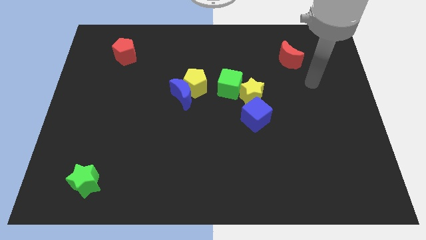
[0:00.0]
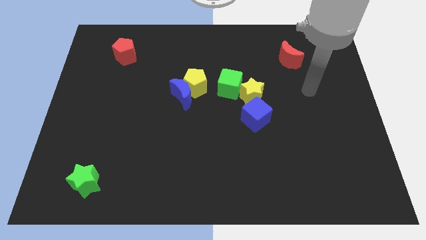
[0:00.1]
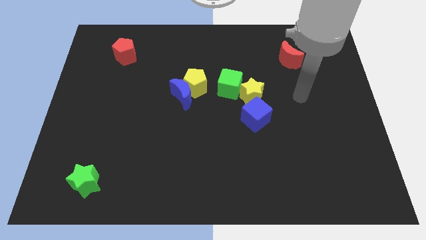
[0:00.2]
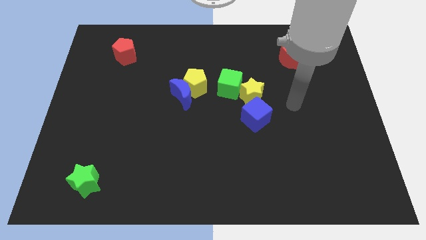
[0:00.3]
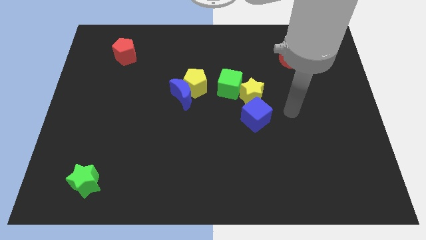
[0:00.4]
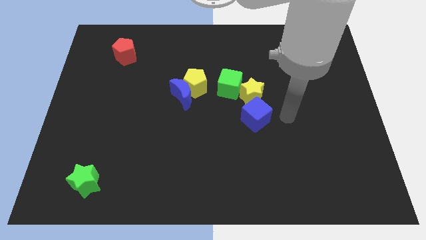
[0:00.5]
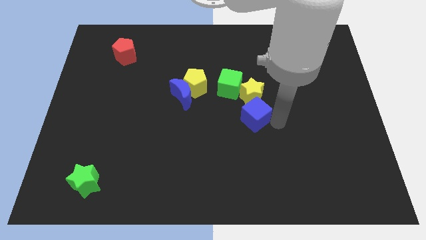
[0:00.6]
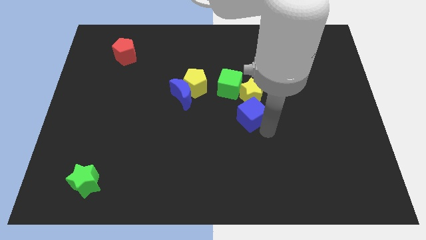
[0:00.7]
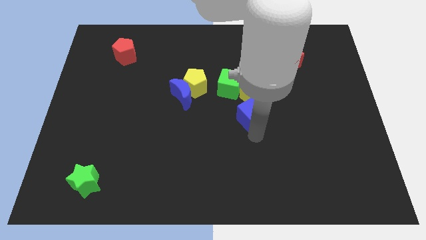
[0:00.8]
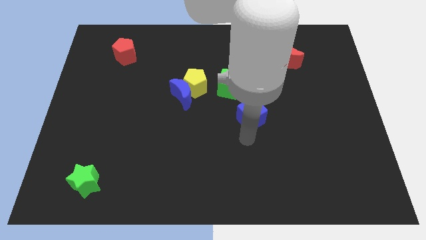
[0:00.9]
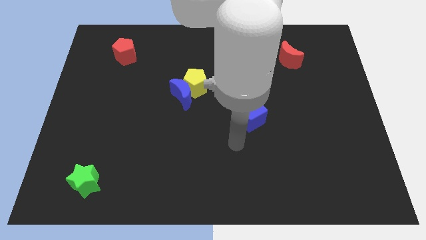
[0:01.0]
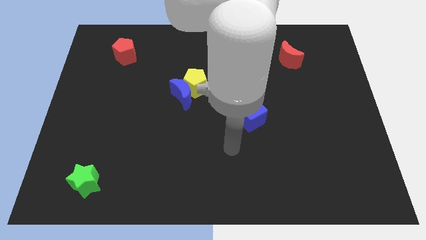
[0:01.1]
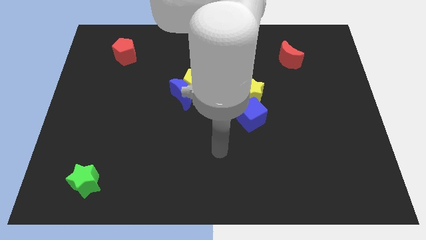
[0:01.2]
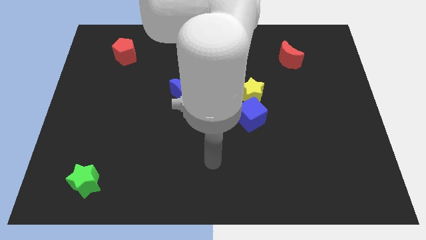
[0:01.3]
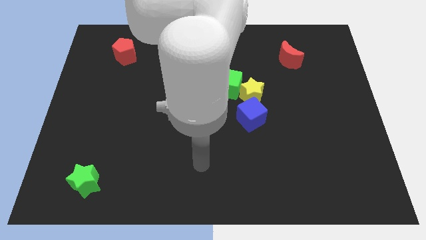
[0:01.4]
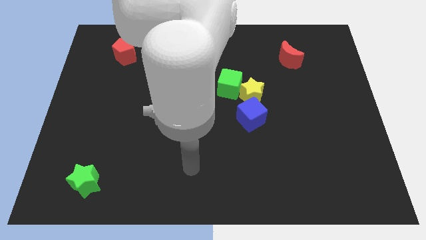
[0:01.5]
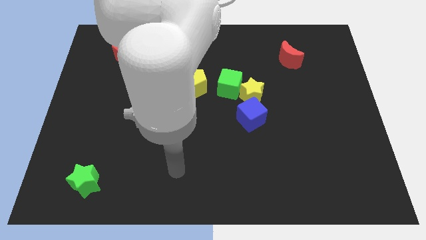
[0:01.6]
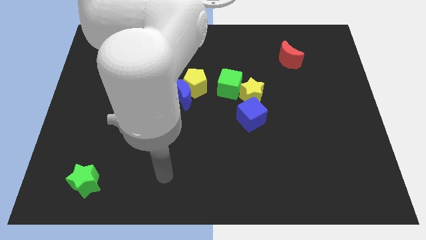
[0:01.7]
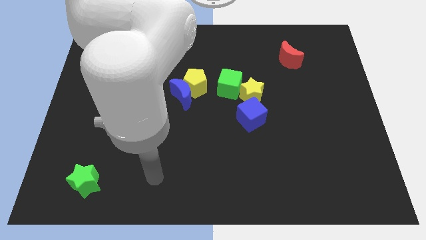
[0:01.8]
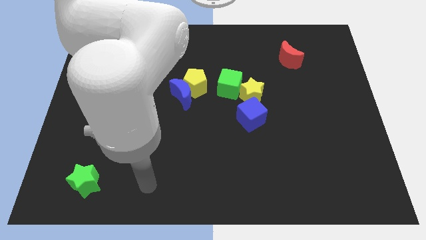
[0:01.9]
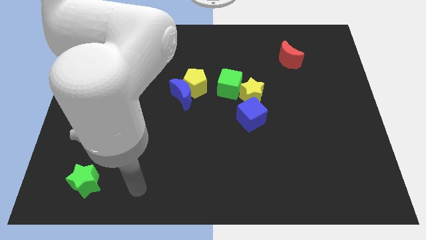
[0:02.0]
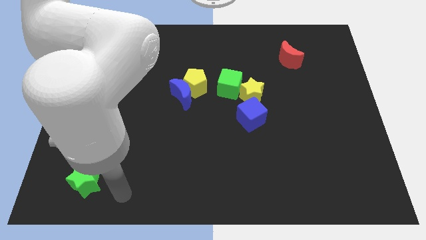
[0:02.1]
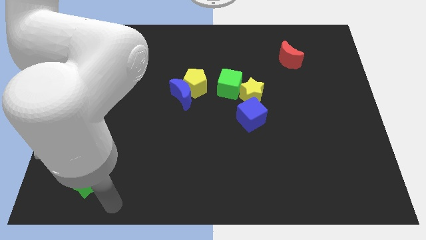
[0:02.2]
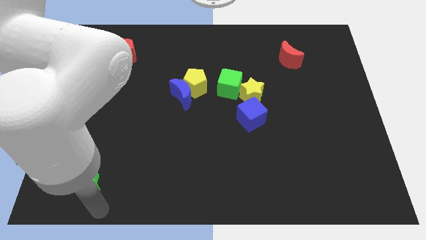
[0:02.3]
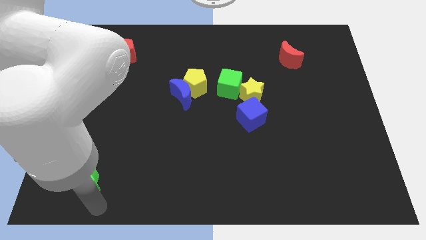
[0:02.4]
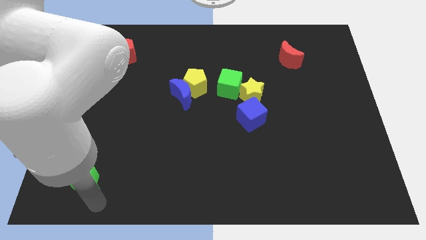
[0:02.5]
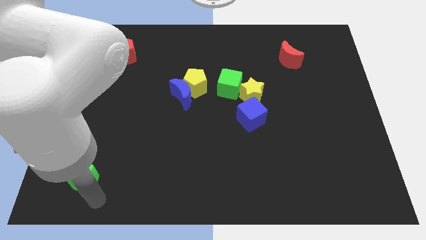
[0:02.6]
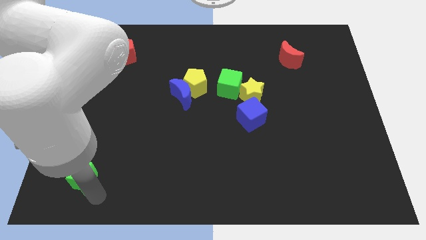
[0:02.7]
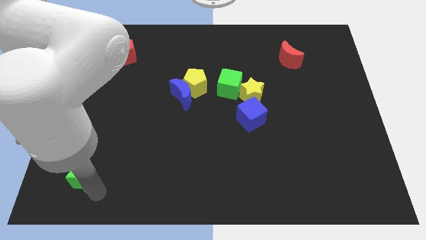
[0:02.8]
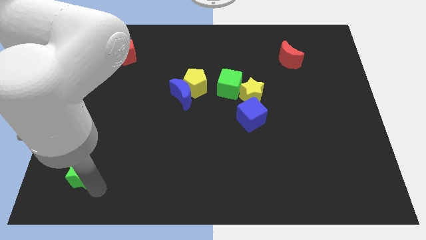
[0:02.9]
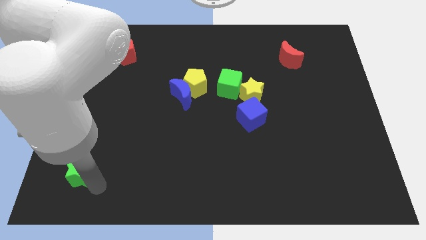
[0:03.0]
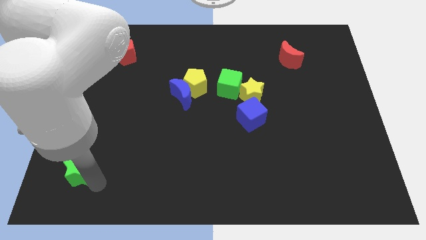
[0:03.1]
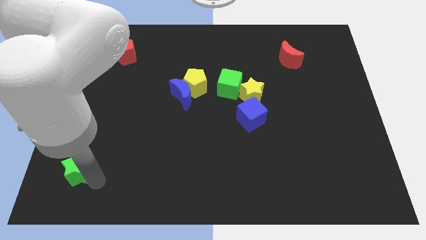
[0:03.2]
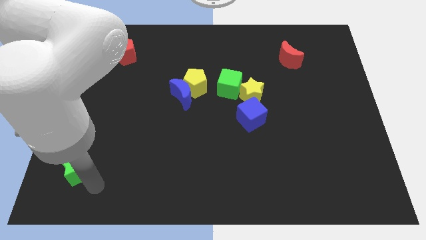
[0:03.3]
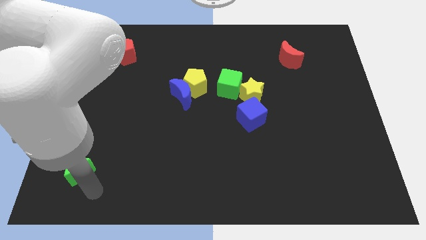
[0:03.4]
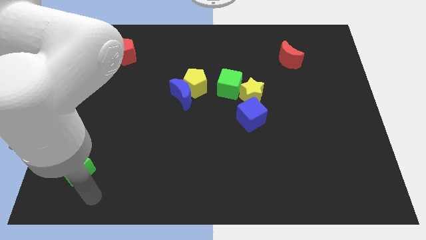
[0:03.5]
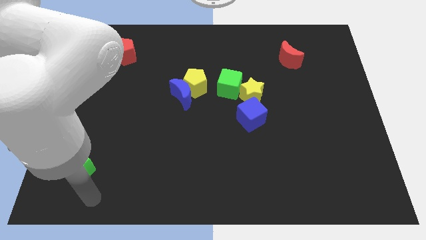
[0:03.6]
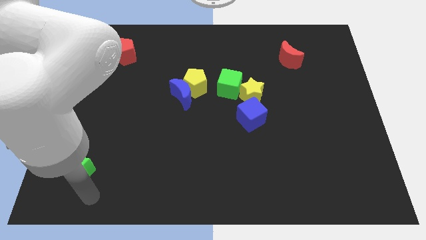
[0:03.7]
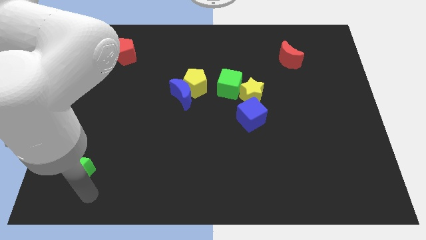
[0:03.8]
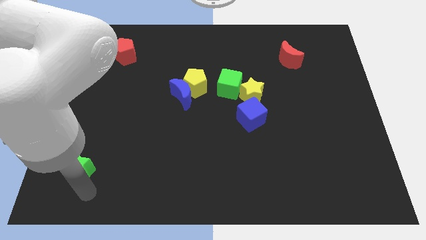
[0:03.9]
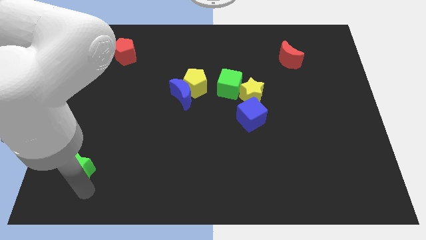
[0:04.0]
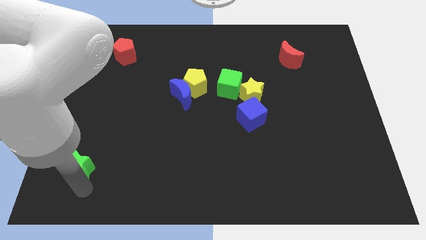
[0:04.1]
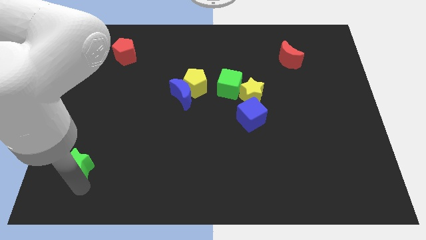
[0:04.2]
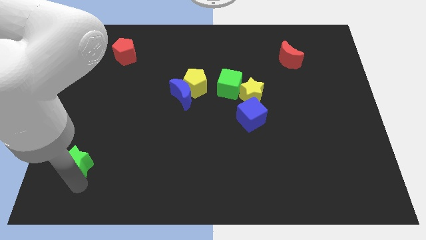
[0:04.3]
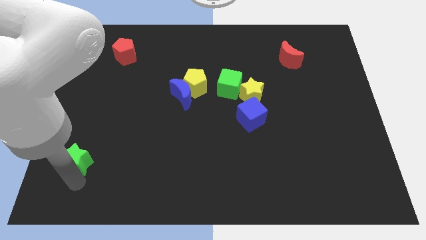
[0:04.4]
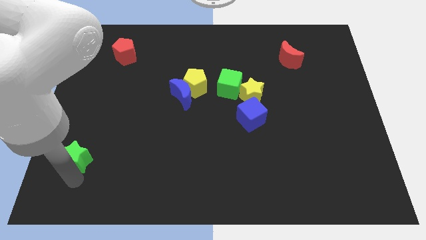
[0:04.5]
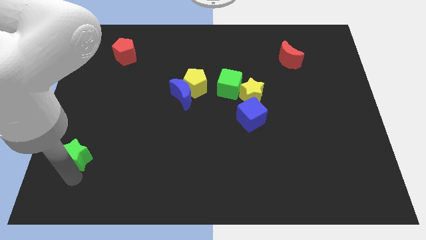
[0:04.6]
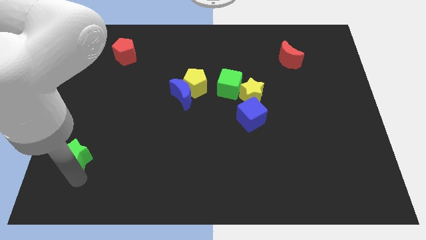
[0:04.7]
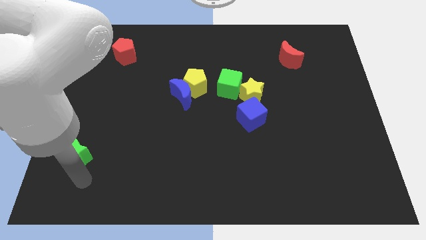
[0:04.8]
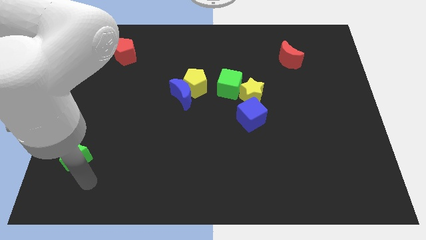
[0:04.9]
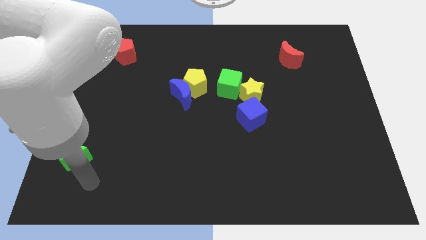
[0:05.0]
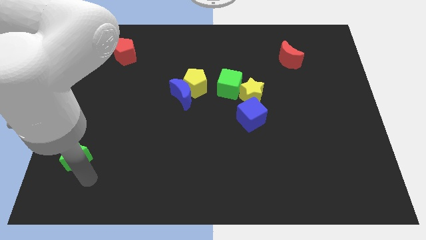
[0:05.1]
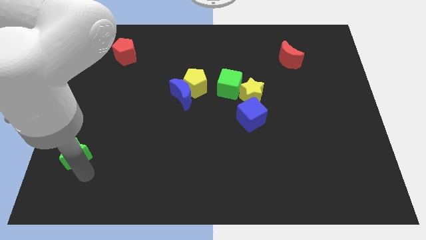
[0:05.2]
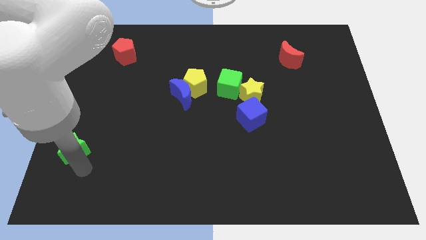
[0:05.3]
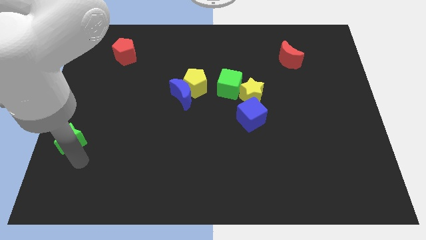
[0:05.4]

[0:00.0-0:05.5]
slide the green star to the center left
